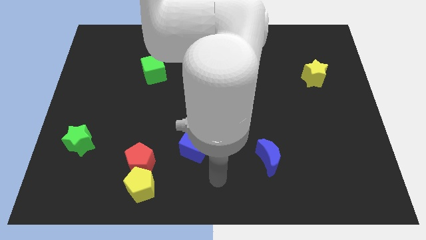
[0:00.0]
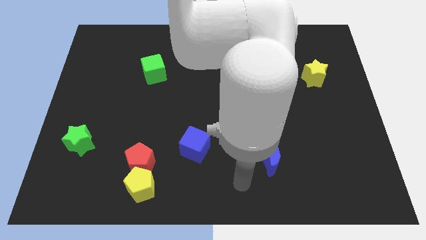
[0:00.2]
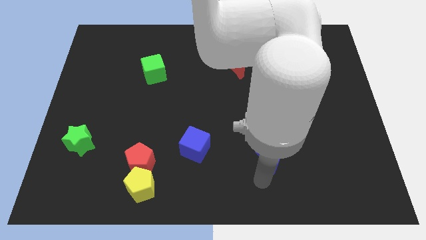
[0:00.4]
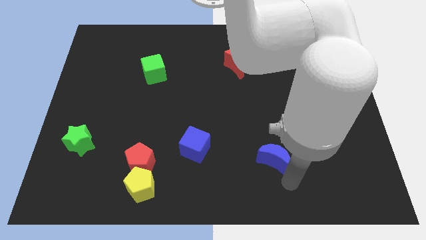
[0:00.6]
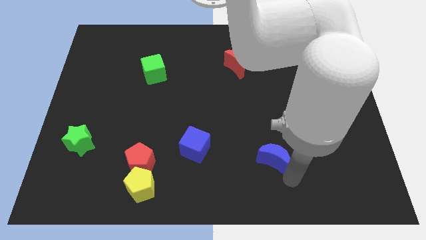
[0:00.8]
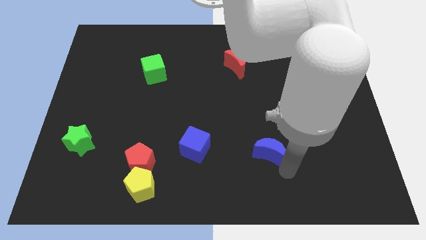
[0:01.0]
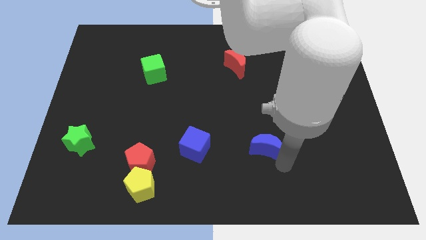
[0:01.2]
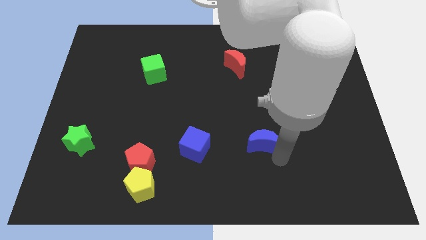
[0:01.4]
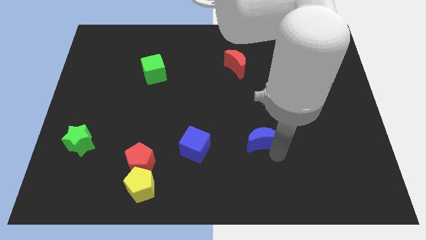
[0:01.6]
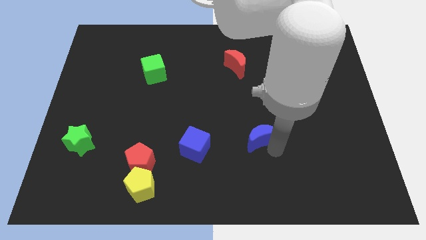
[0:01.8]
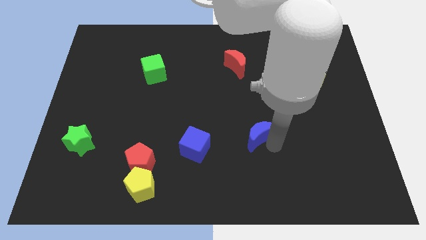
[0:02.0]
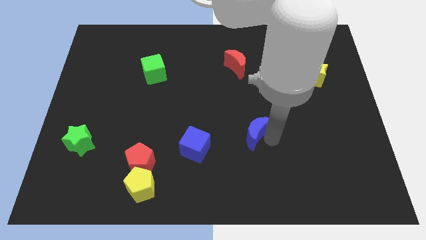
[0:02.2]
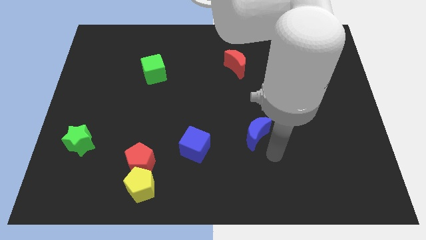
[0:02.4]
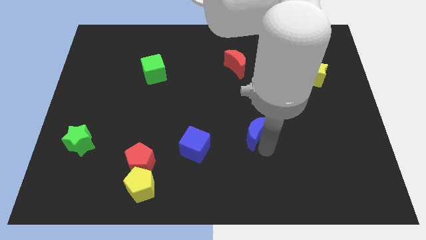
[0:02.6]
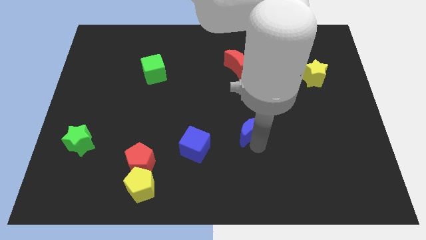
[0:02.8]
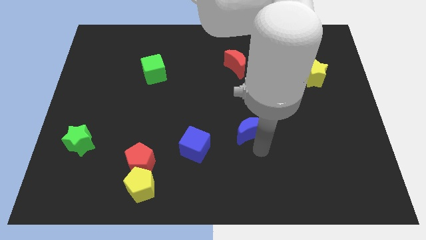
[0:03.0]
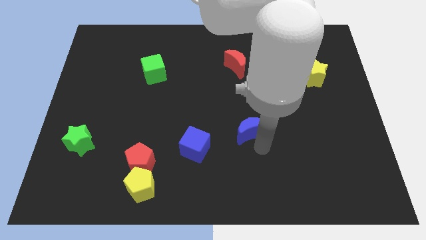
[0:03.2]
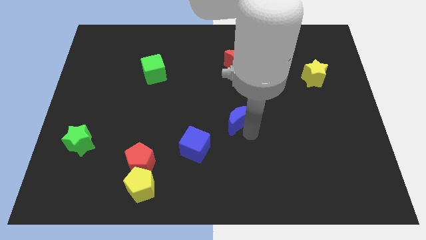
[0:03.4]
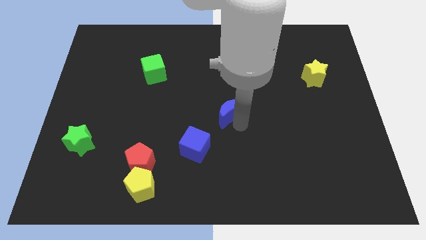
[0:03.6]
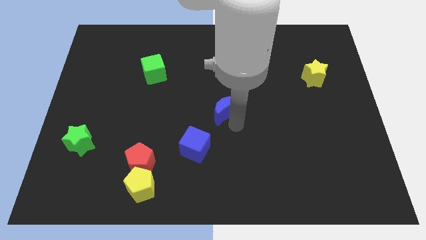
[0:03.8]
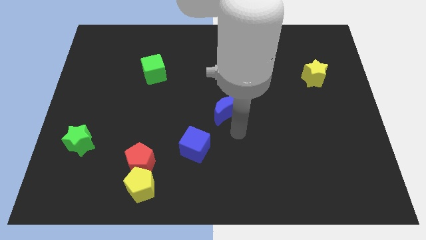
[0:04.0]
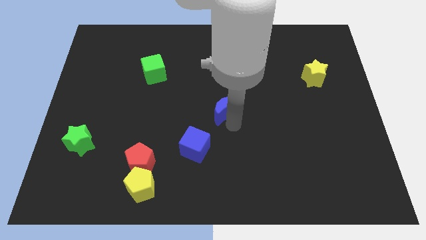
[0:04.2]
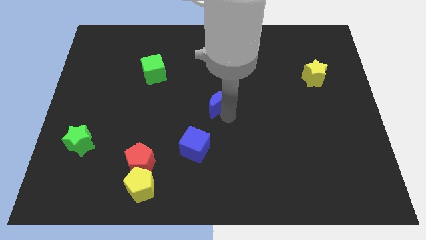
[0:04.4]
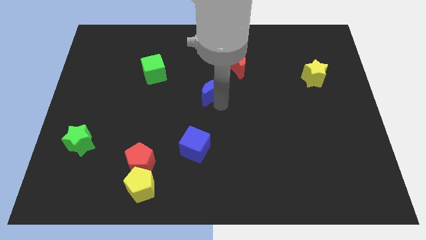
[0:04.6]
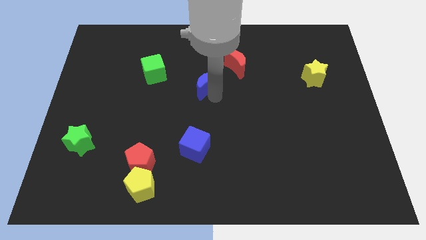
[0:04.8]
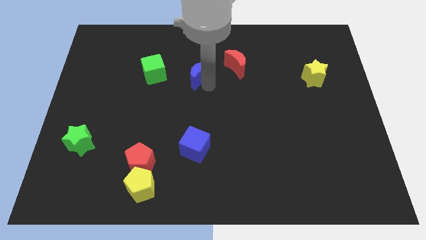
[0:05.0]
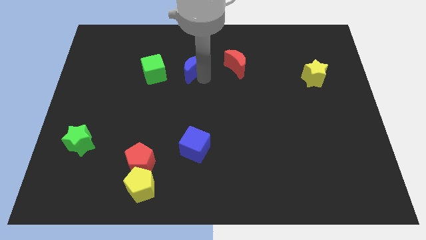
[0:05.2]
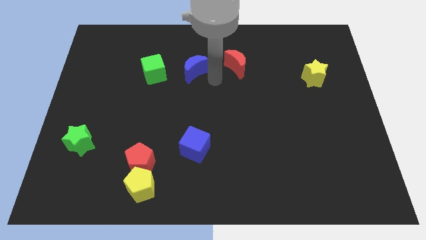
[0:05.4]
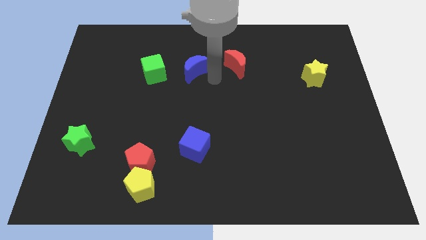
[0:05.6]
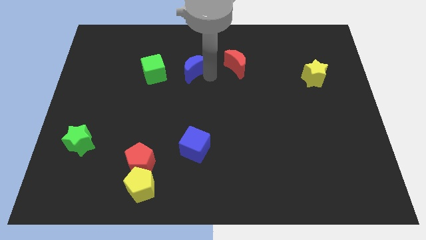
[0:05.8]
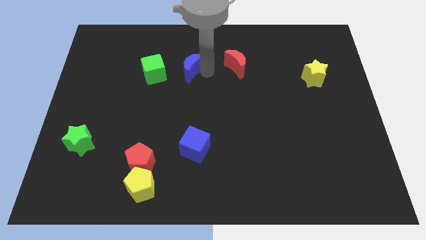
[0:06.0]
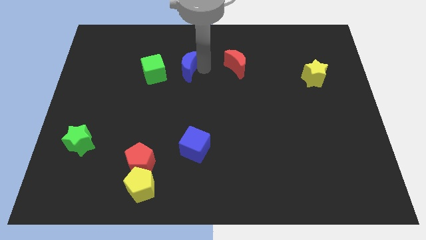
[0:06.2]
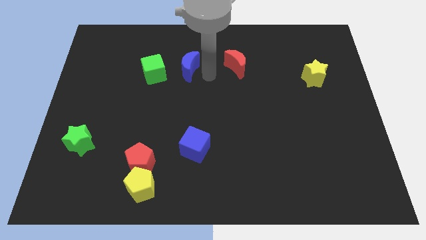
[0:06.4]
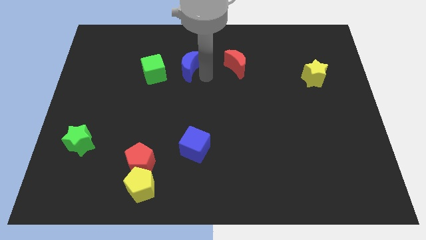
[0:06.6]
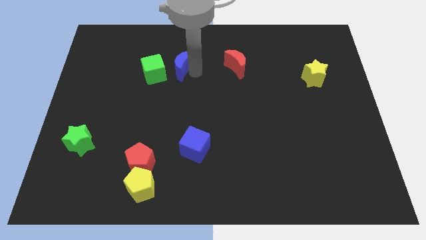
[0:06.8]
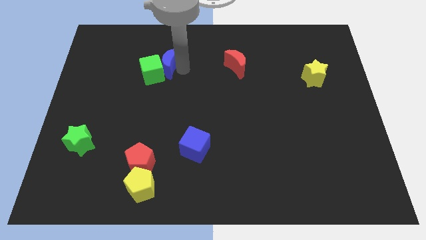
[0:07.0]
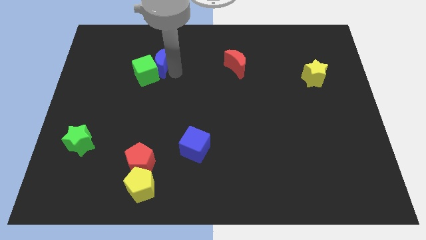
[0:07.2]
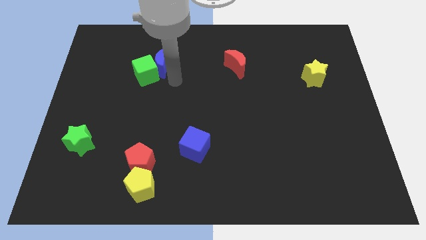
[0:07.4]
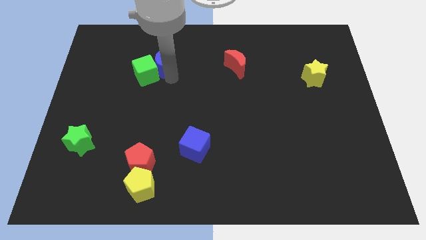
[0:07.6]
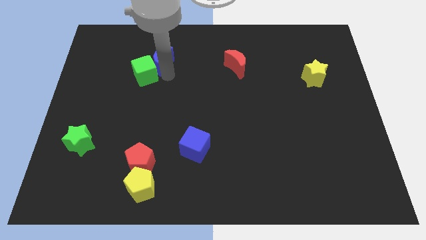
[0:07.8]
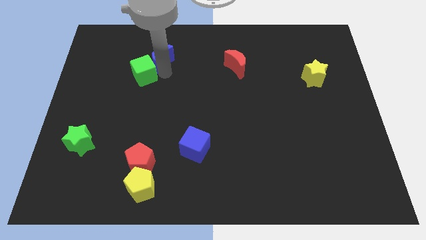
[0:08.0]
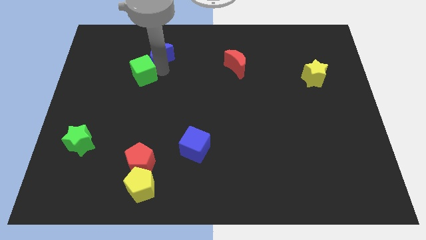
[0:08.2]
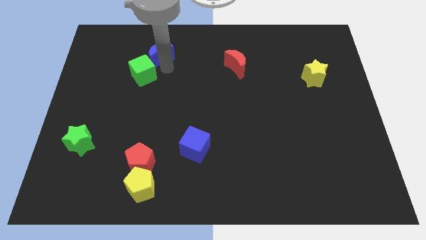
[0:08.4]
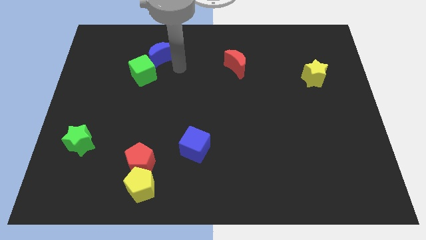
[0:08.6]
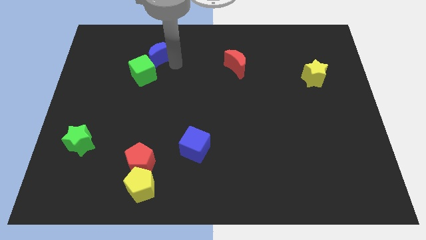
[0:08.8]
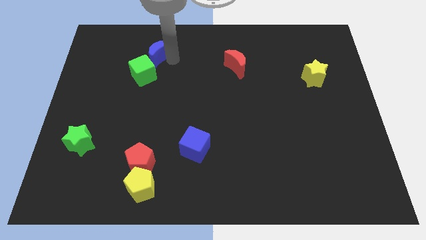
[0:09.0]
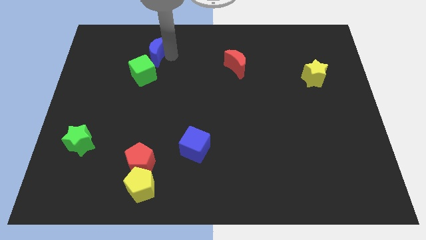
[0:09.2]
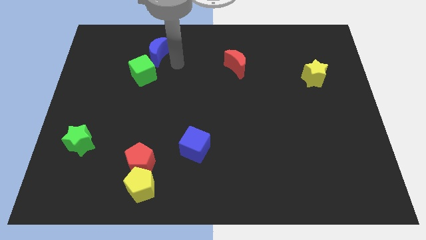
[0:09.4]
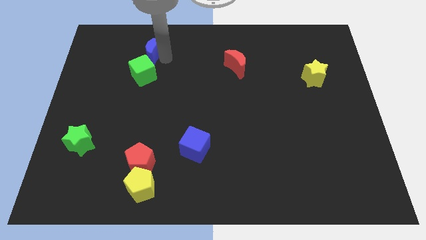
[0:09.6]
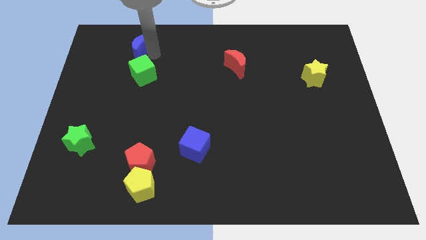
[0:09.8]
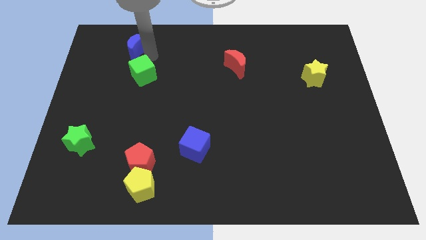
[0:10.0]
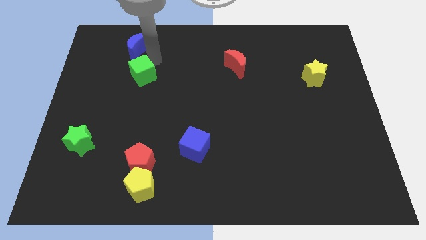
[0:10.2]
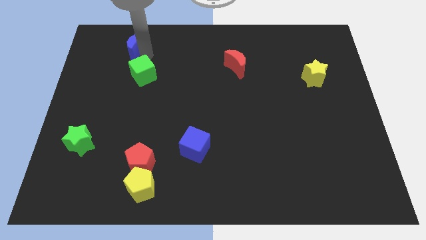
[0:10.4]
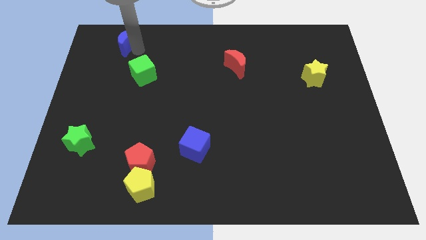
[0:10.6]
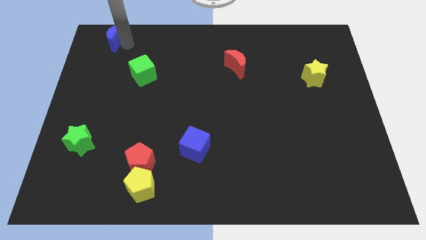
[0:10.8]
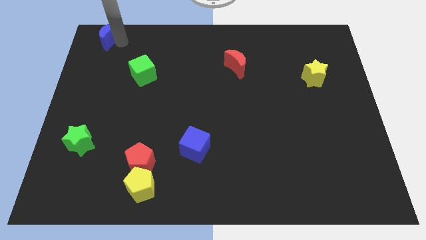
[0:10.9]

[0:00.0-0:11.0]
push the blue moon to the top left

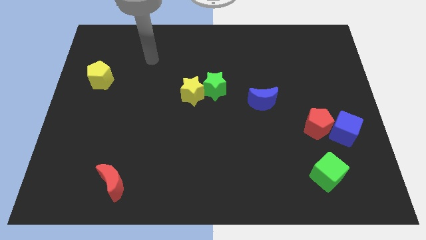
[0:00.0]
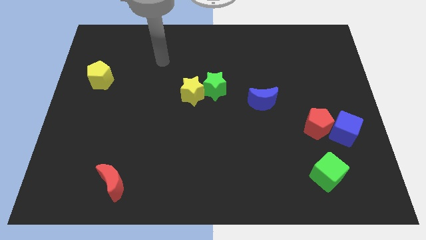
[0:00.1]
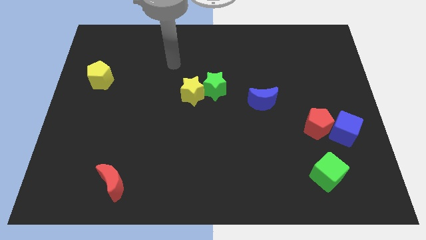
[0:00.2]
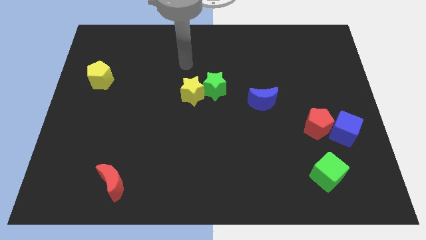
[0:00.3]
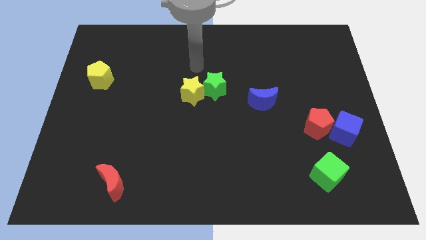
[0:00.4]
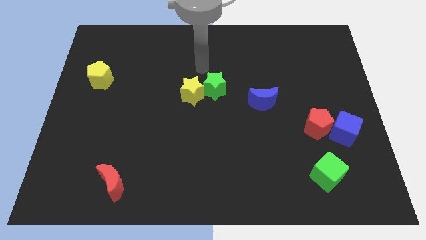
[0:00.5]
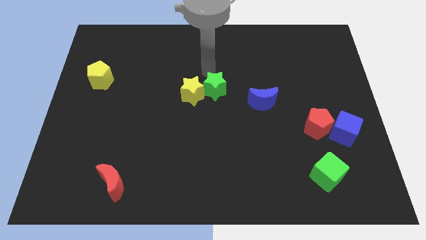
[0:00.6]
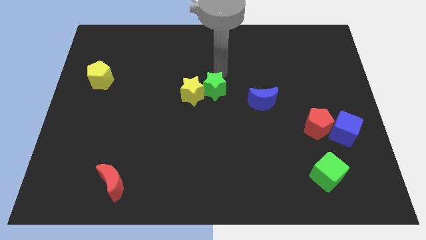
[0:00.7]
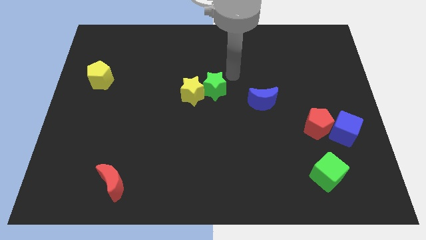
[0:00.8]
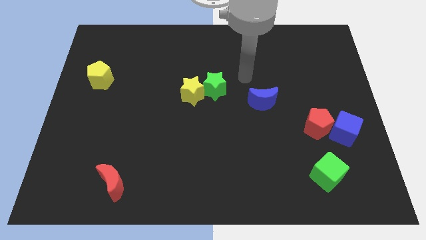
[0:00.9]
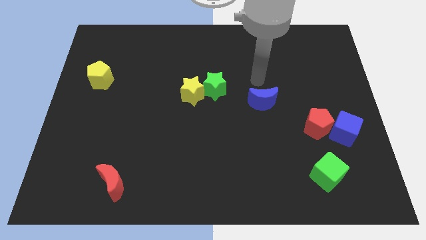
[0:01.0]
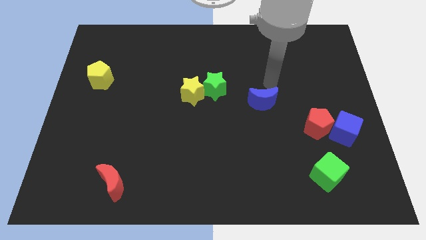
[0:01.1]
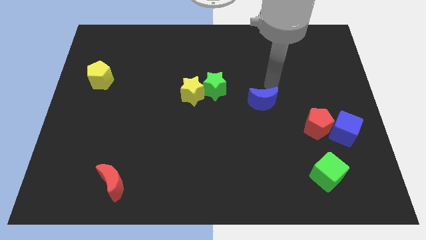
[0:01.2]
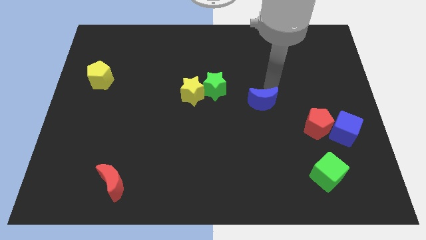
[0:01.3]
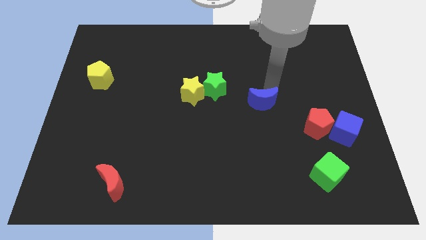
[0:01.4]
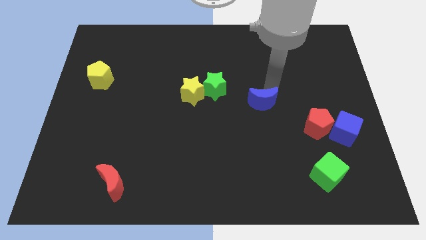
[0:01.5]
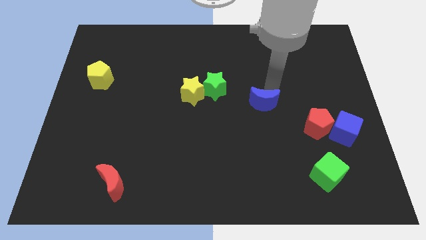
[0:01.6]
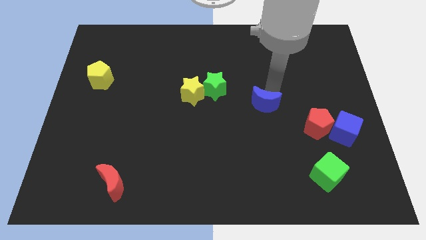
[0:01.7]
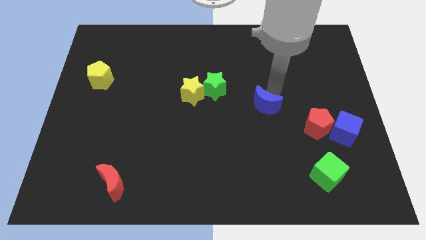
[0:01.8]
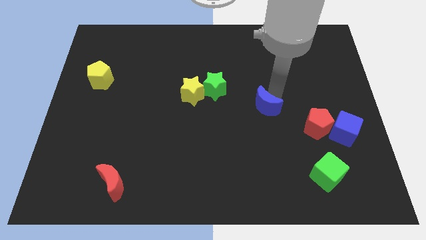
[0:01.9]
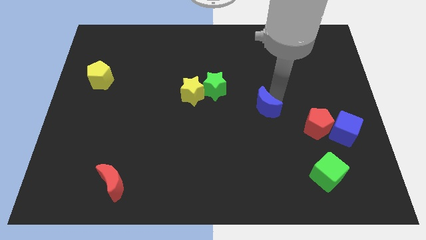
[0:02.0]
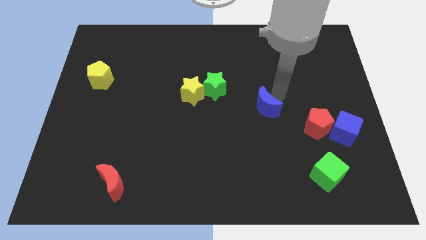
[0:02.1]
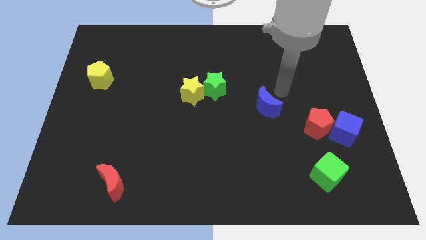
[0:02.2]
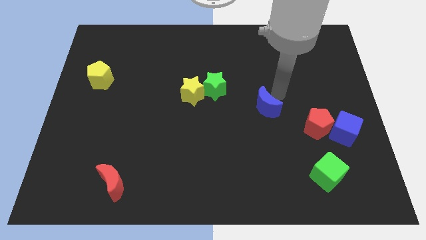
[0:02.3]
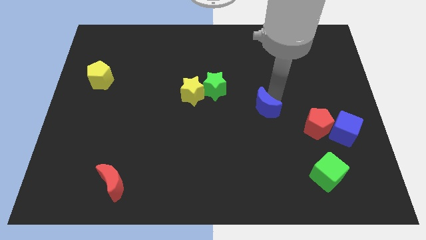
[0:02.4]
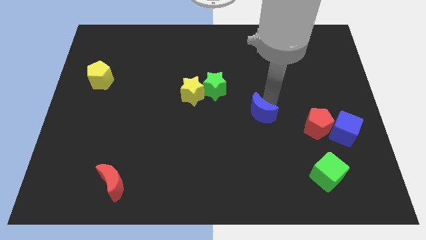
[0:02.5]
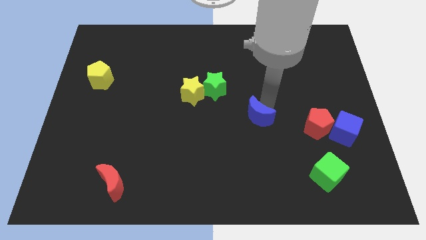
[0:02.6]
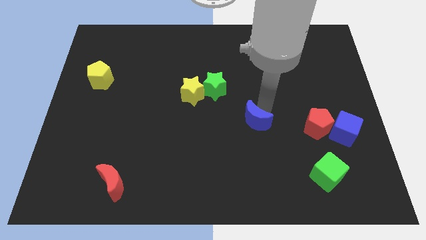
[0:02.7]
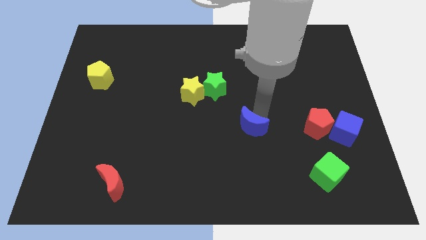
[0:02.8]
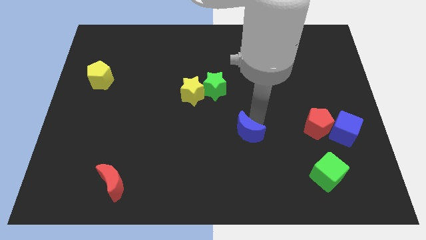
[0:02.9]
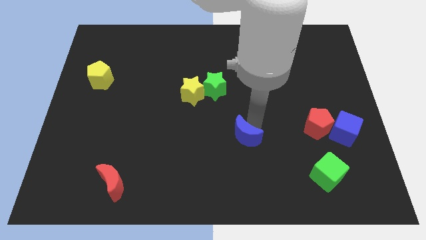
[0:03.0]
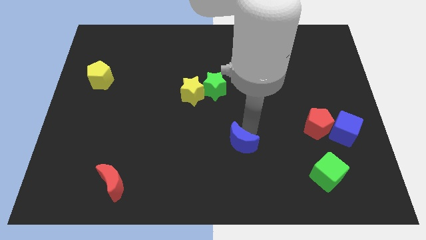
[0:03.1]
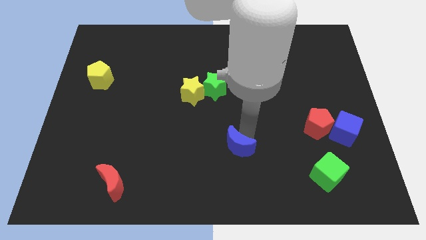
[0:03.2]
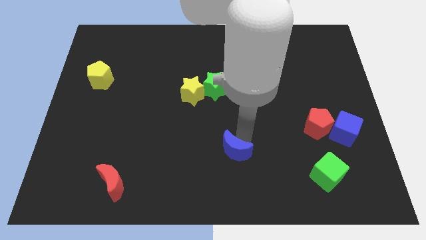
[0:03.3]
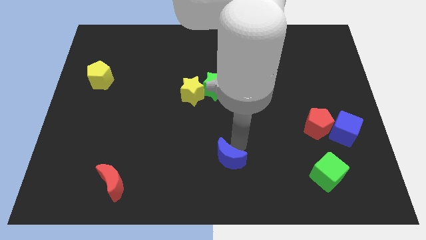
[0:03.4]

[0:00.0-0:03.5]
put the blue moon to the bottom
